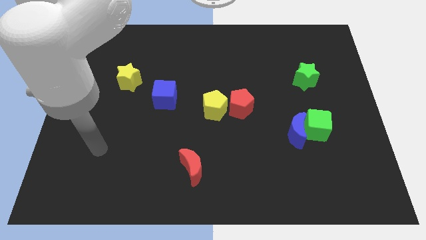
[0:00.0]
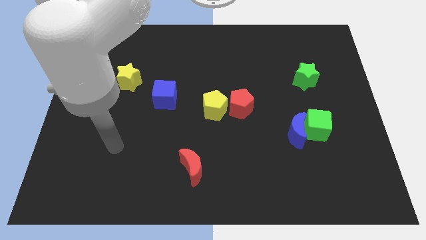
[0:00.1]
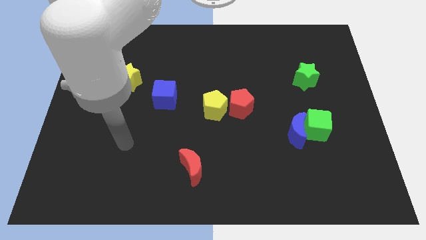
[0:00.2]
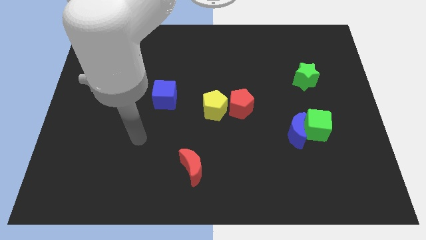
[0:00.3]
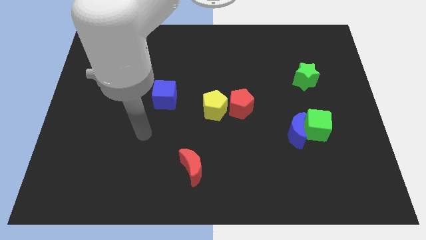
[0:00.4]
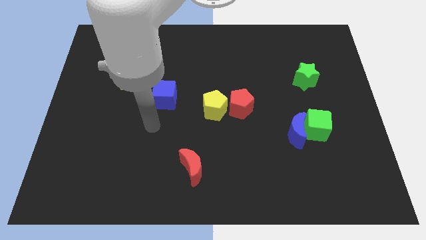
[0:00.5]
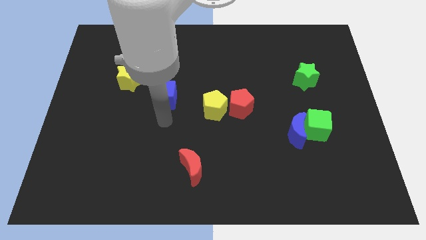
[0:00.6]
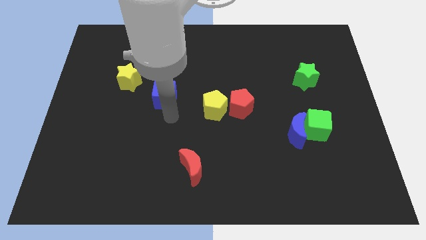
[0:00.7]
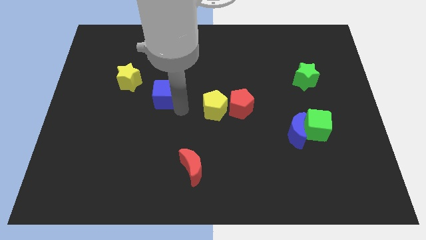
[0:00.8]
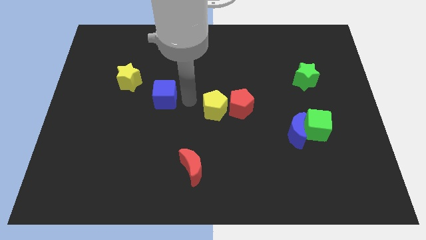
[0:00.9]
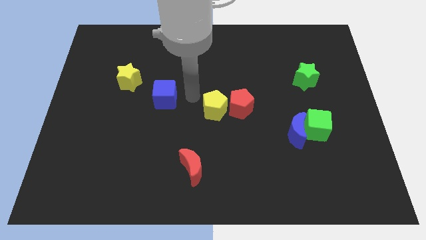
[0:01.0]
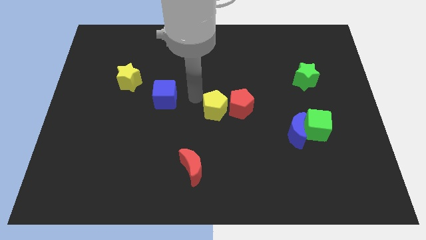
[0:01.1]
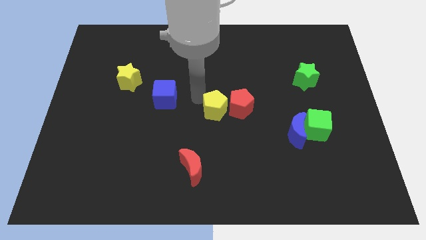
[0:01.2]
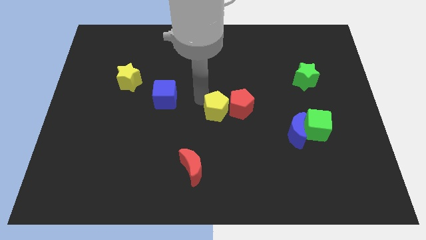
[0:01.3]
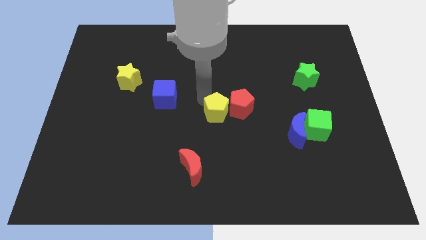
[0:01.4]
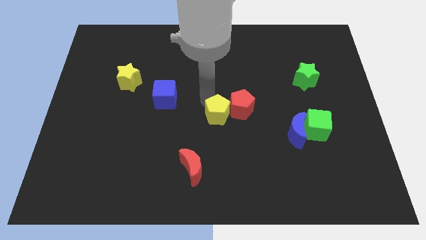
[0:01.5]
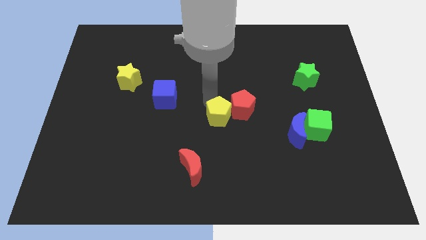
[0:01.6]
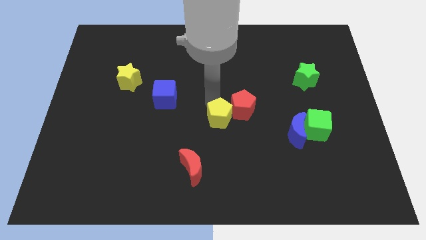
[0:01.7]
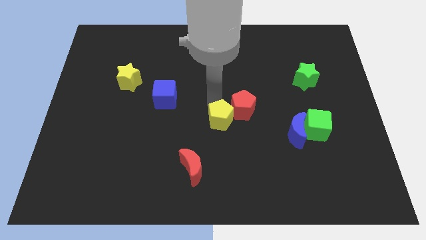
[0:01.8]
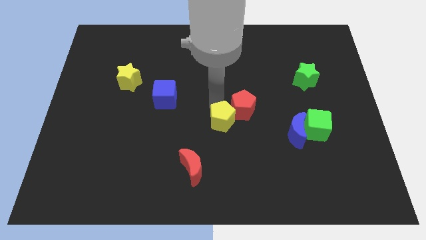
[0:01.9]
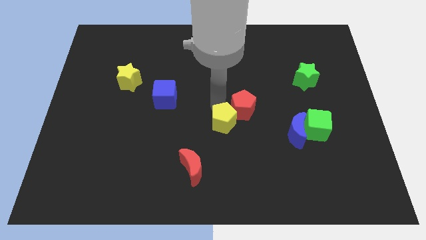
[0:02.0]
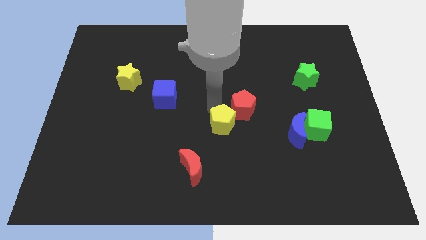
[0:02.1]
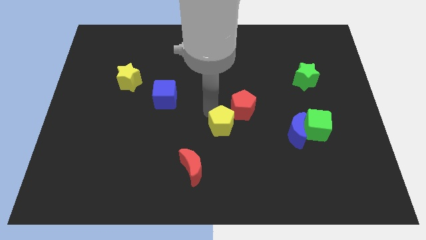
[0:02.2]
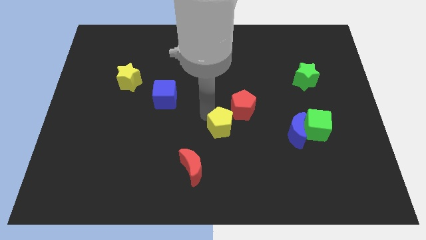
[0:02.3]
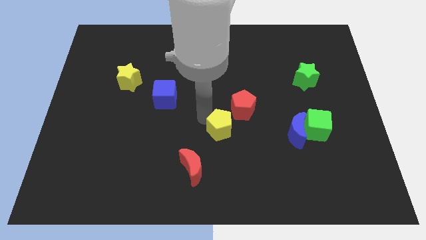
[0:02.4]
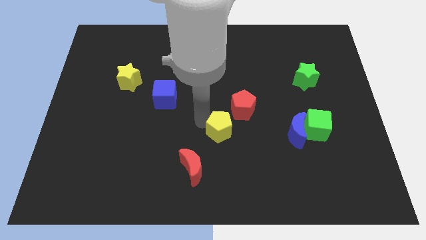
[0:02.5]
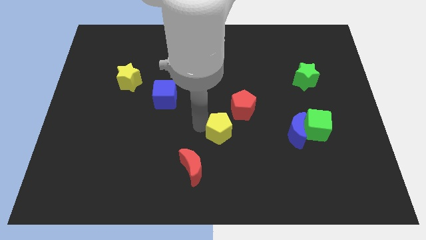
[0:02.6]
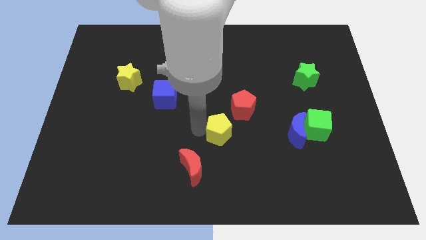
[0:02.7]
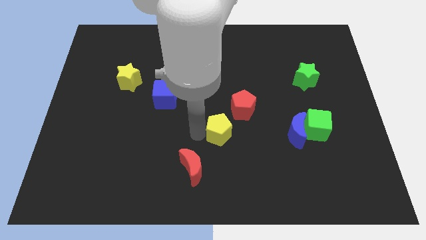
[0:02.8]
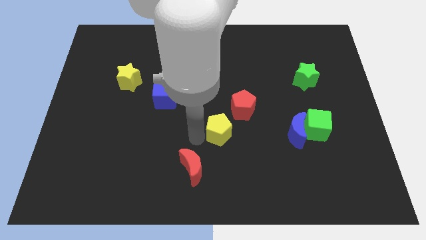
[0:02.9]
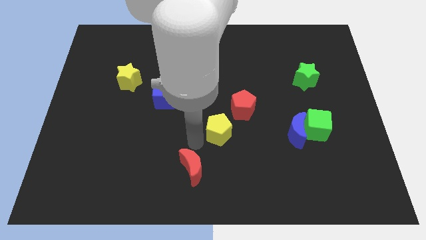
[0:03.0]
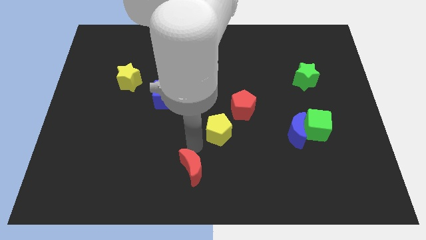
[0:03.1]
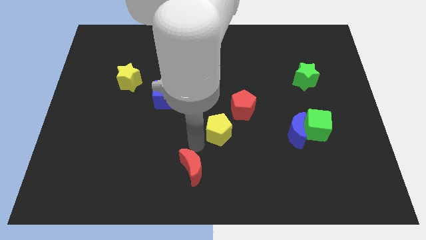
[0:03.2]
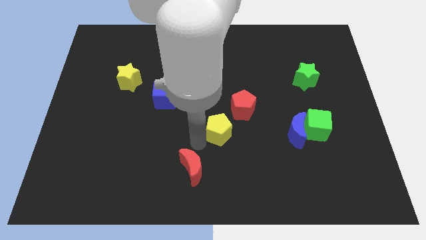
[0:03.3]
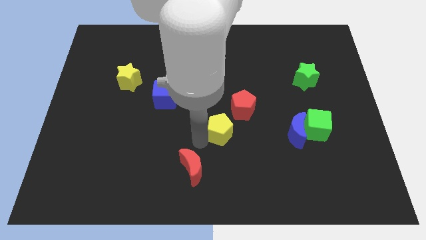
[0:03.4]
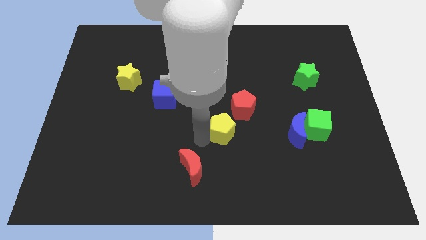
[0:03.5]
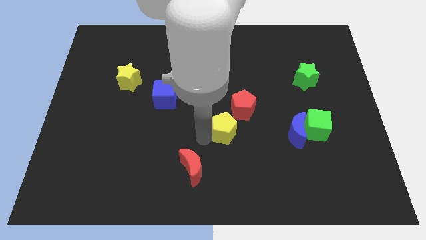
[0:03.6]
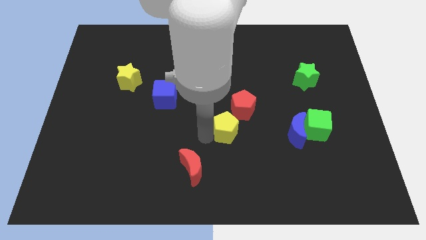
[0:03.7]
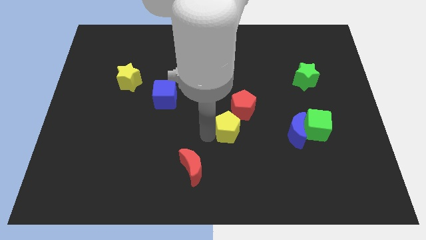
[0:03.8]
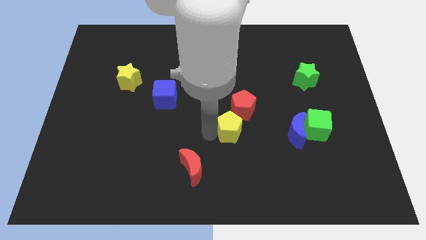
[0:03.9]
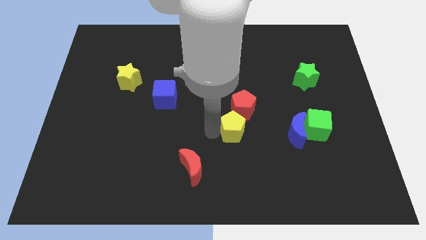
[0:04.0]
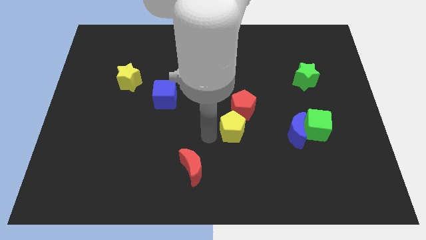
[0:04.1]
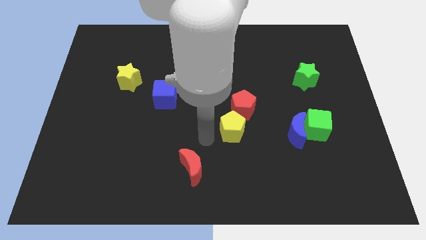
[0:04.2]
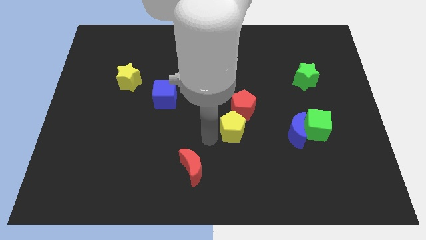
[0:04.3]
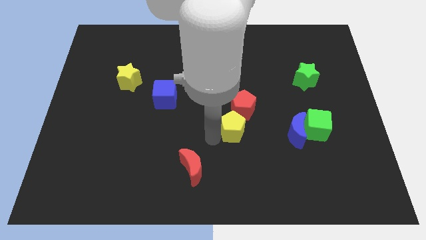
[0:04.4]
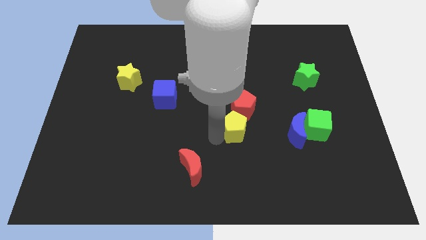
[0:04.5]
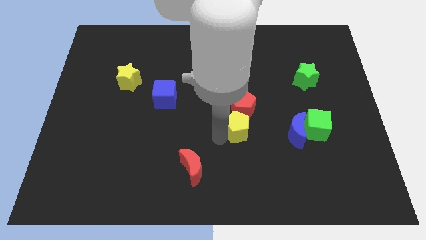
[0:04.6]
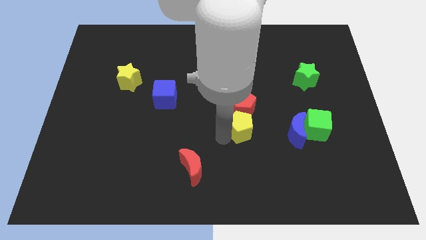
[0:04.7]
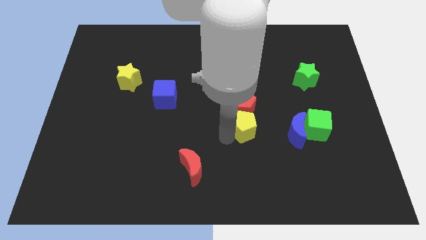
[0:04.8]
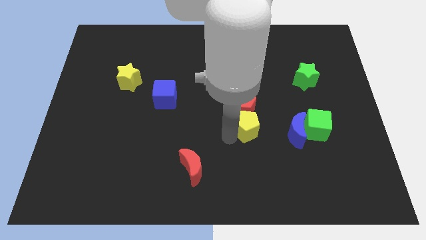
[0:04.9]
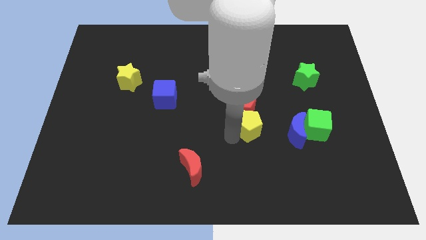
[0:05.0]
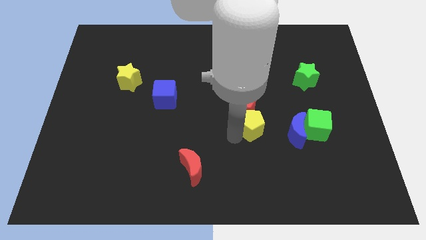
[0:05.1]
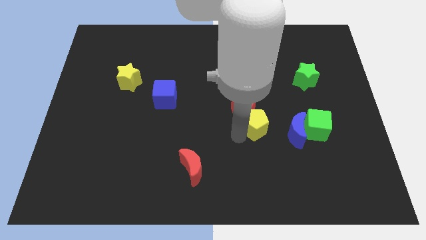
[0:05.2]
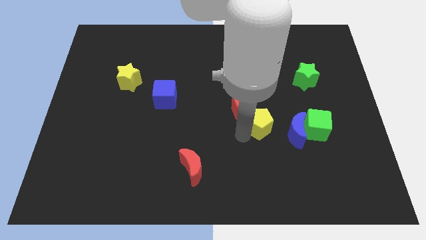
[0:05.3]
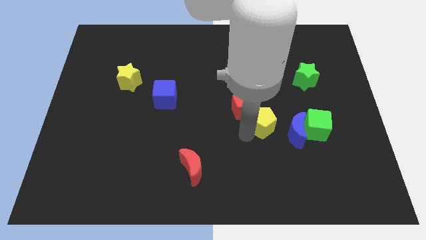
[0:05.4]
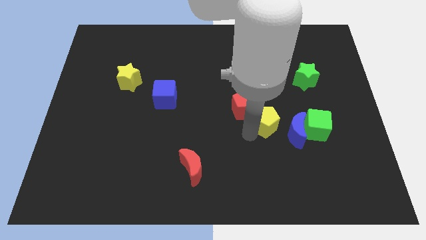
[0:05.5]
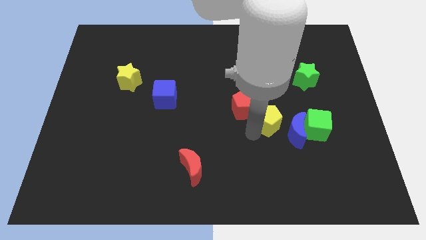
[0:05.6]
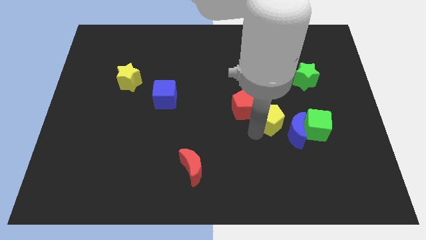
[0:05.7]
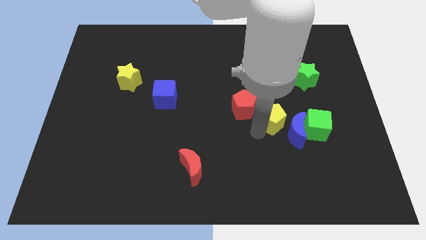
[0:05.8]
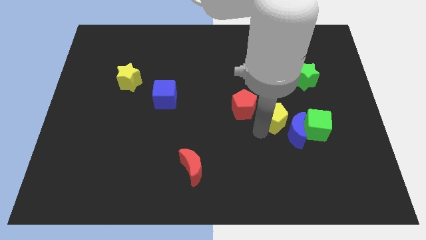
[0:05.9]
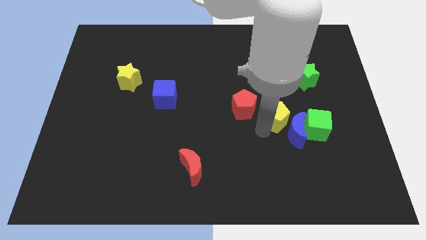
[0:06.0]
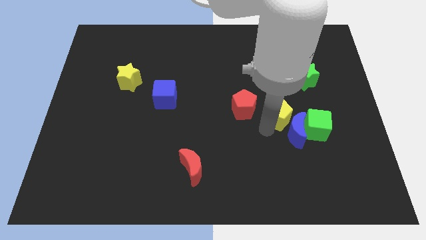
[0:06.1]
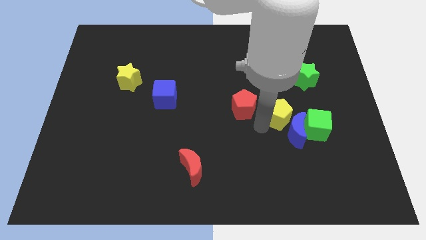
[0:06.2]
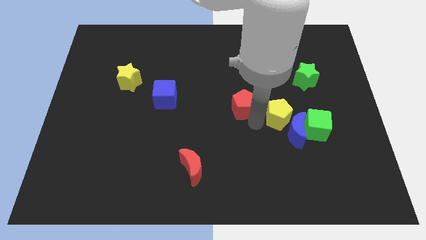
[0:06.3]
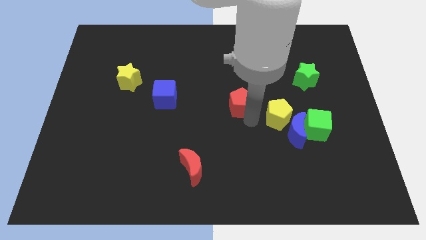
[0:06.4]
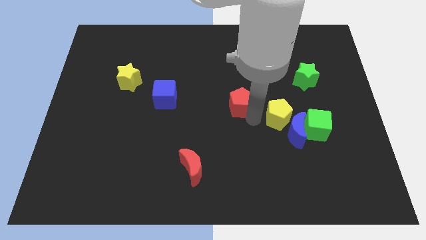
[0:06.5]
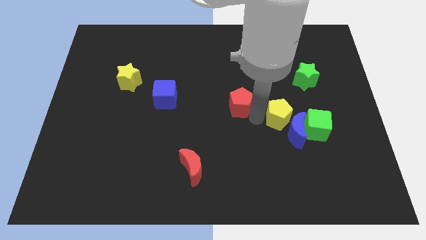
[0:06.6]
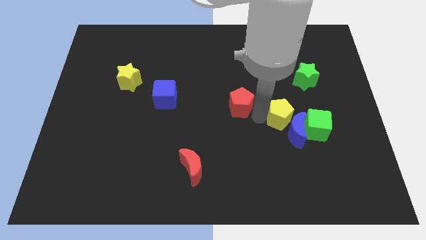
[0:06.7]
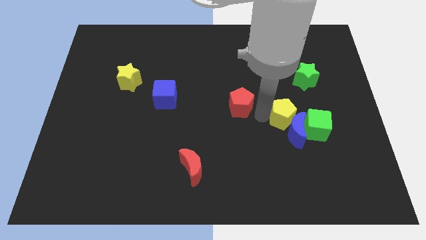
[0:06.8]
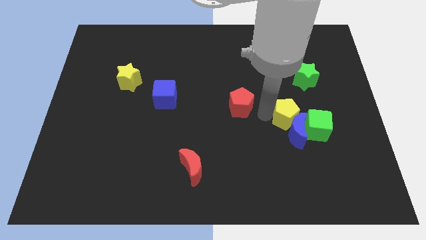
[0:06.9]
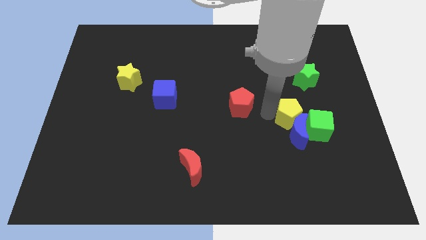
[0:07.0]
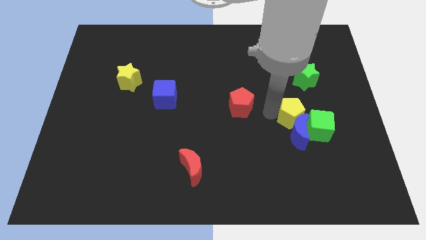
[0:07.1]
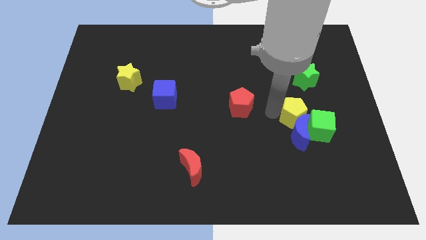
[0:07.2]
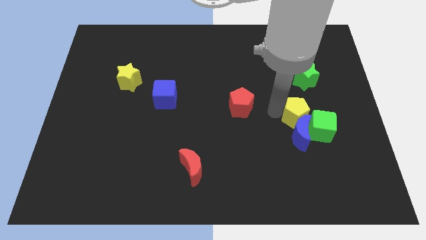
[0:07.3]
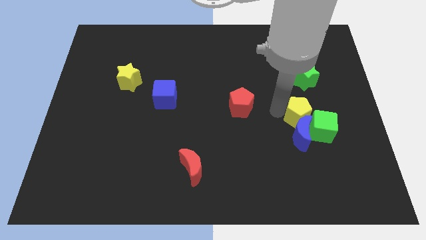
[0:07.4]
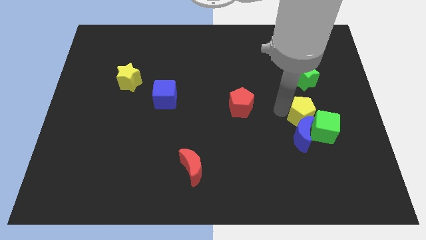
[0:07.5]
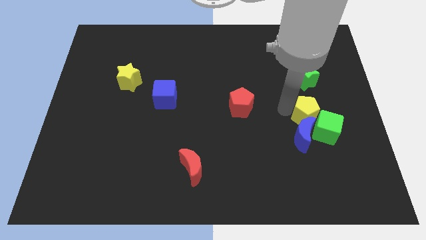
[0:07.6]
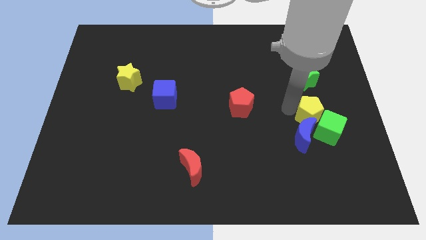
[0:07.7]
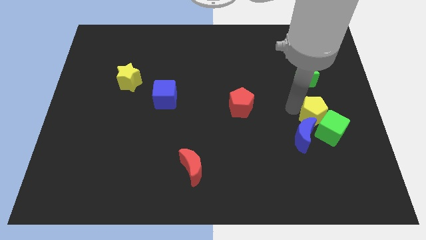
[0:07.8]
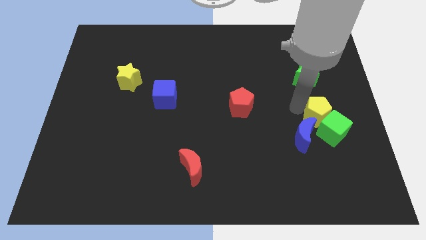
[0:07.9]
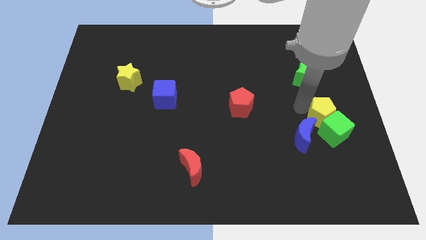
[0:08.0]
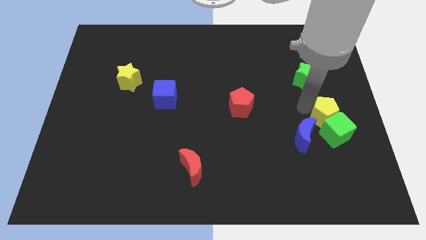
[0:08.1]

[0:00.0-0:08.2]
put the yellow pentagon to the top right of the green cube
